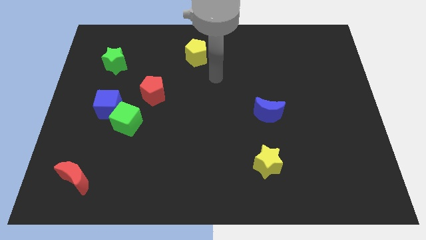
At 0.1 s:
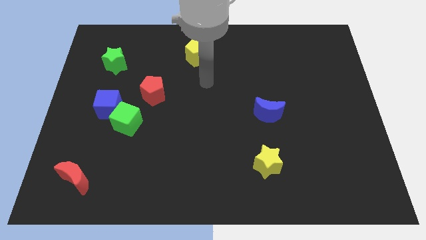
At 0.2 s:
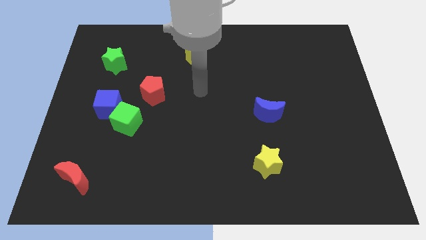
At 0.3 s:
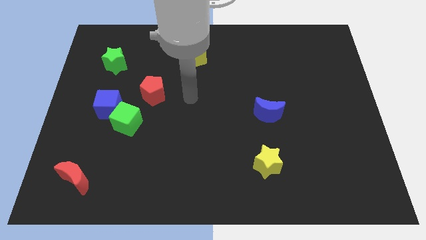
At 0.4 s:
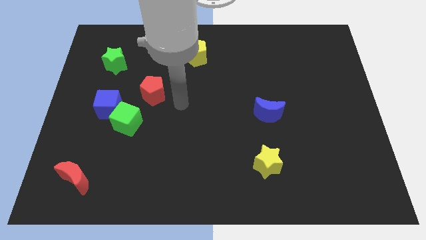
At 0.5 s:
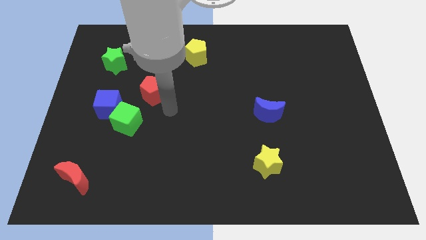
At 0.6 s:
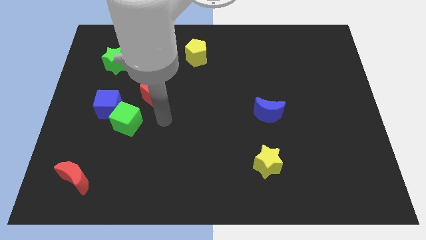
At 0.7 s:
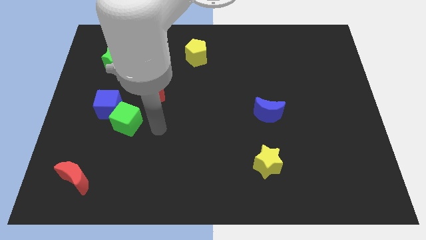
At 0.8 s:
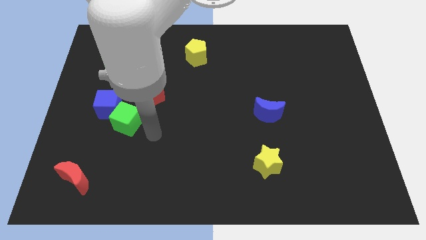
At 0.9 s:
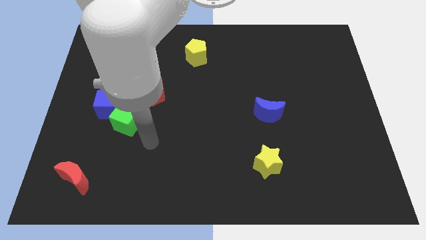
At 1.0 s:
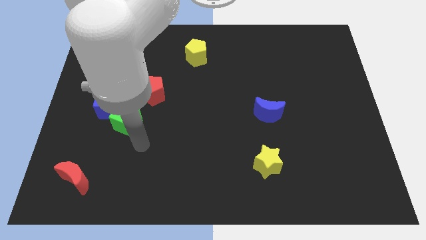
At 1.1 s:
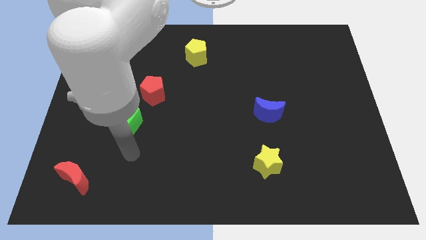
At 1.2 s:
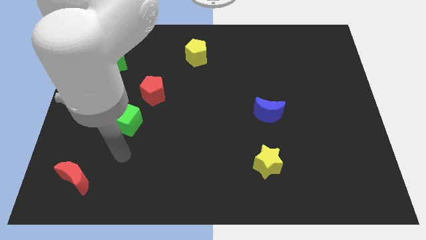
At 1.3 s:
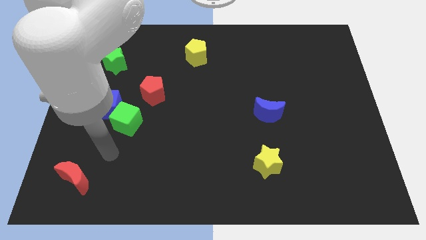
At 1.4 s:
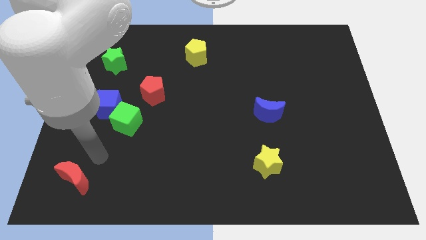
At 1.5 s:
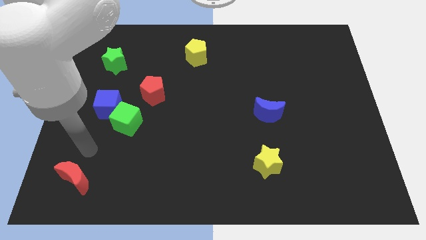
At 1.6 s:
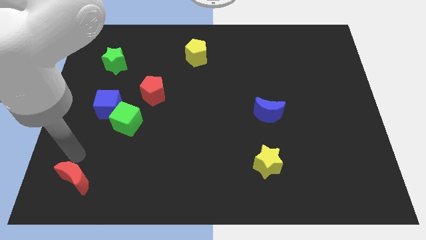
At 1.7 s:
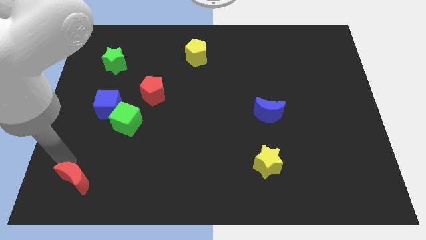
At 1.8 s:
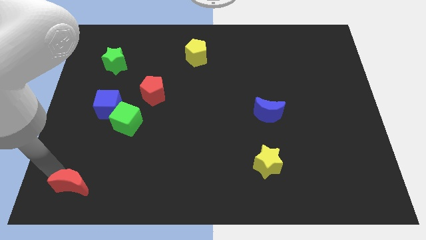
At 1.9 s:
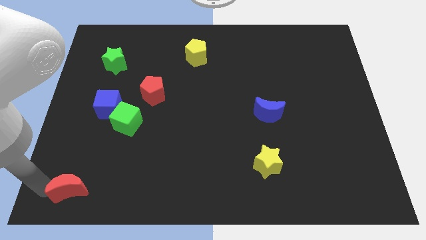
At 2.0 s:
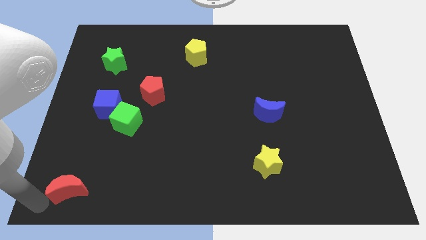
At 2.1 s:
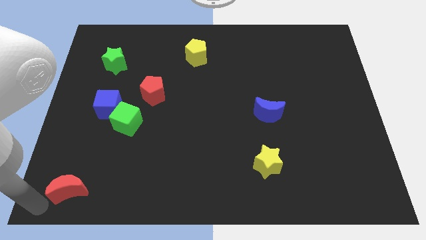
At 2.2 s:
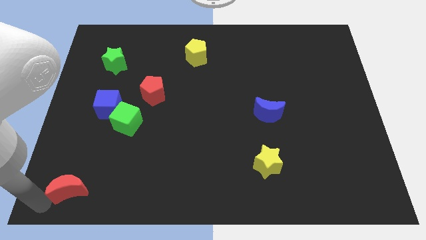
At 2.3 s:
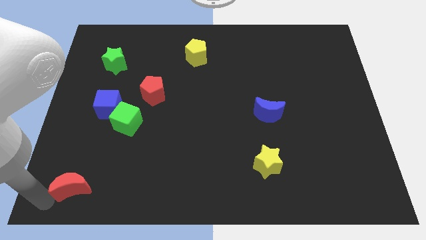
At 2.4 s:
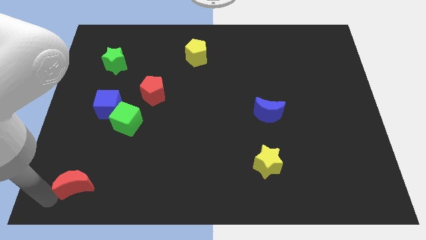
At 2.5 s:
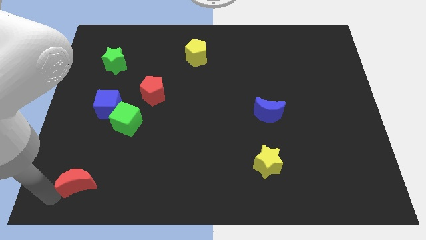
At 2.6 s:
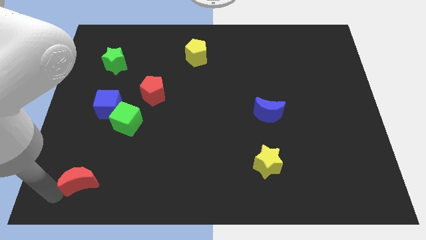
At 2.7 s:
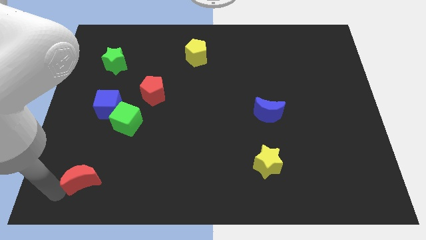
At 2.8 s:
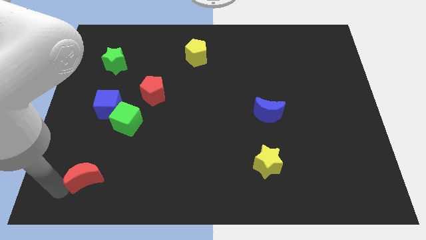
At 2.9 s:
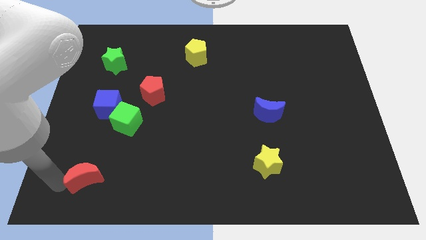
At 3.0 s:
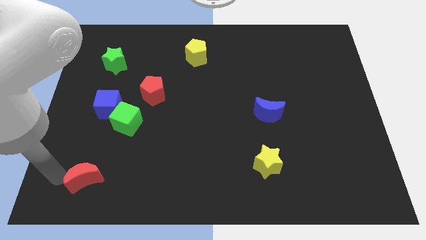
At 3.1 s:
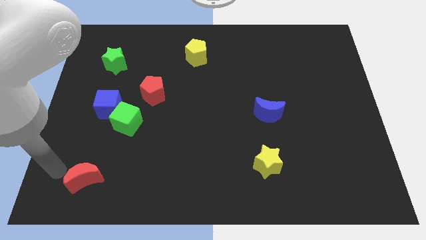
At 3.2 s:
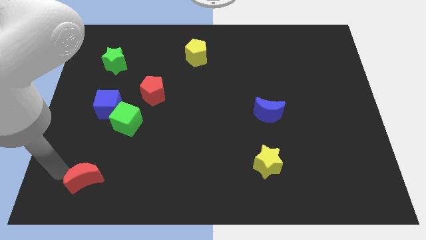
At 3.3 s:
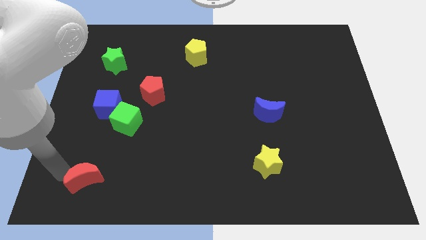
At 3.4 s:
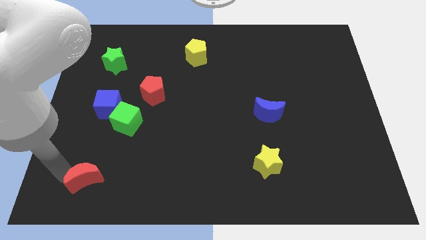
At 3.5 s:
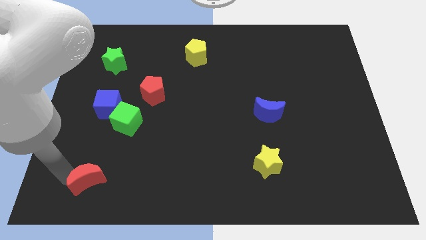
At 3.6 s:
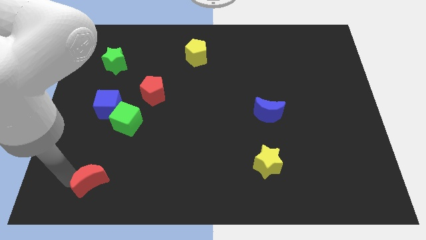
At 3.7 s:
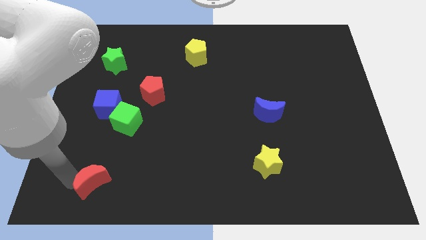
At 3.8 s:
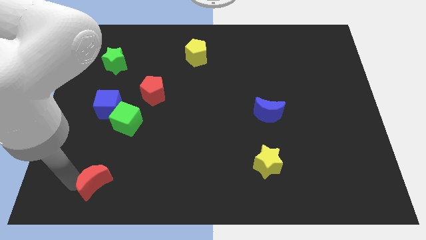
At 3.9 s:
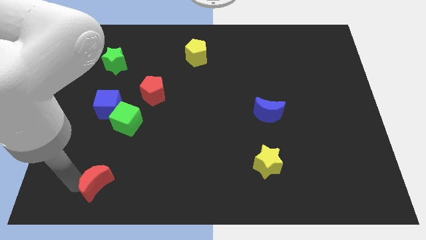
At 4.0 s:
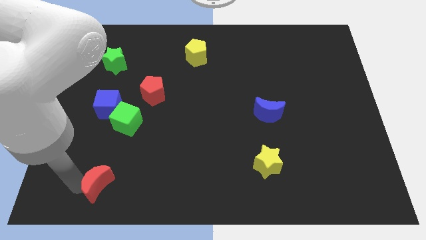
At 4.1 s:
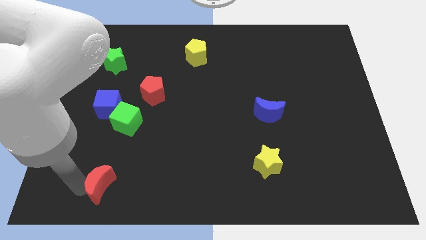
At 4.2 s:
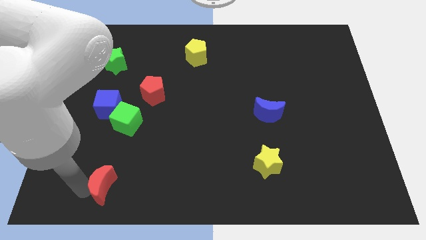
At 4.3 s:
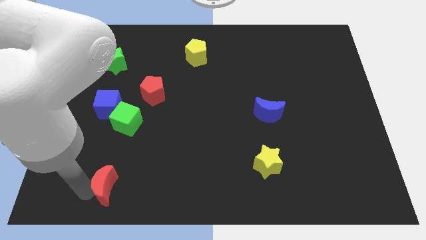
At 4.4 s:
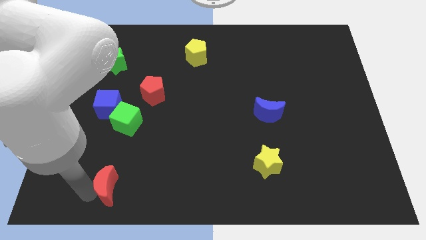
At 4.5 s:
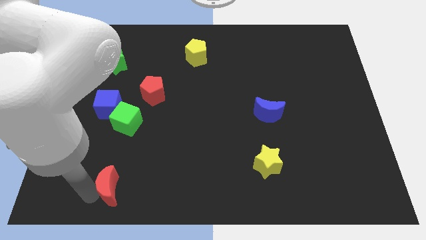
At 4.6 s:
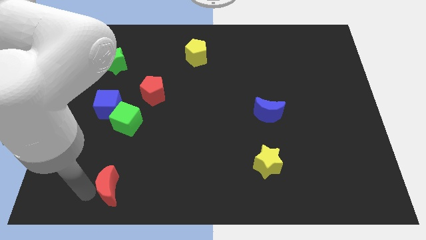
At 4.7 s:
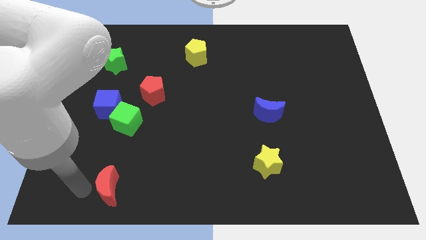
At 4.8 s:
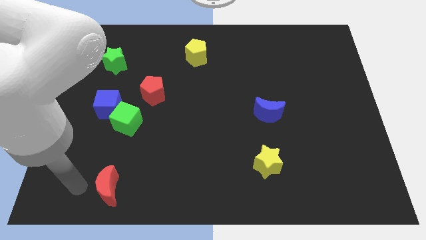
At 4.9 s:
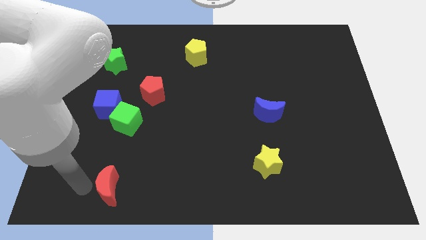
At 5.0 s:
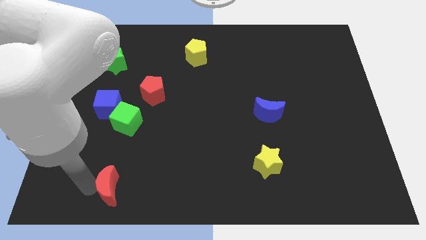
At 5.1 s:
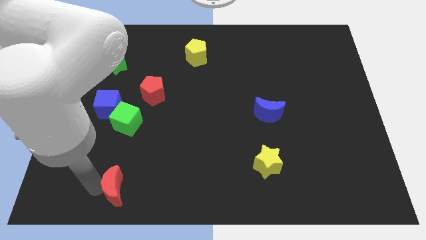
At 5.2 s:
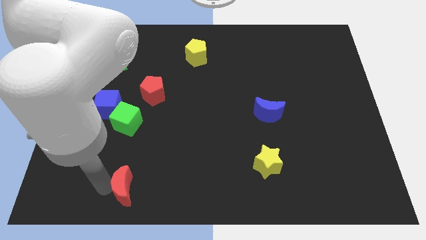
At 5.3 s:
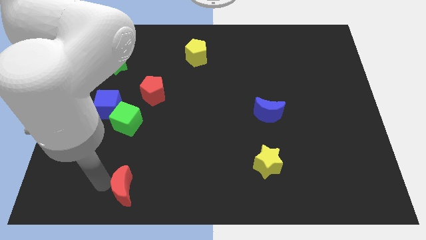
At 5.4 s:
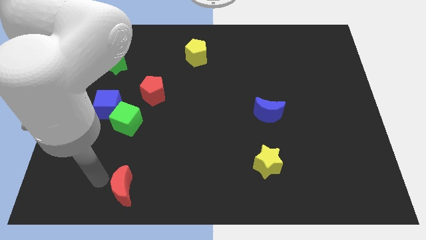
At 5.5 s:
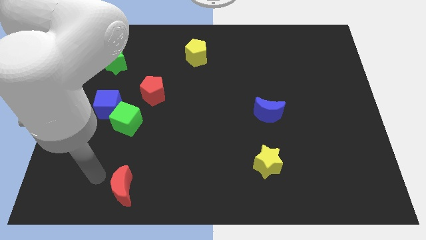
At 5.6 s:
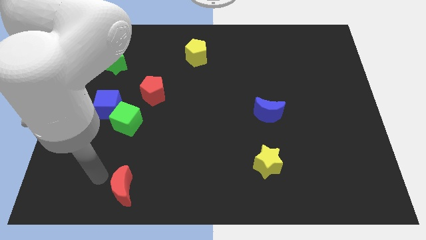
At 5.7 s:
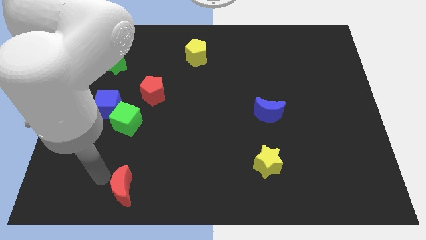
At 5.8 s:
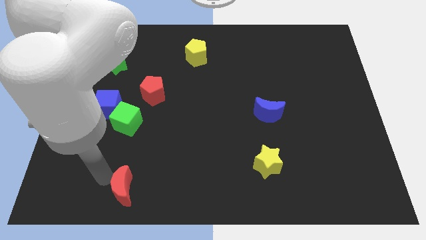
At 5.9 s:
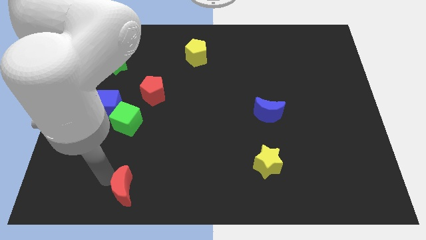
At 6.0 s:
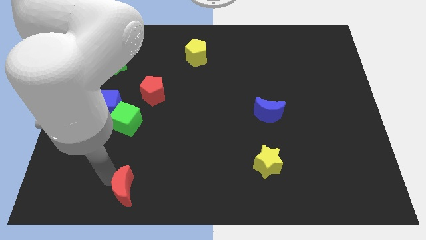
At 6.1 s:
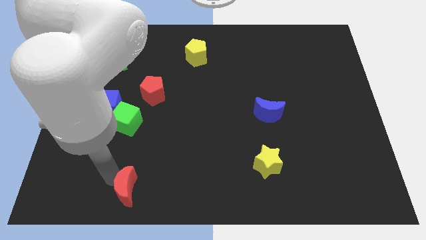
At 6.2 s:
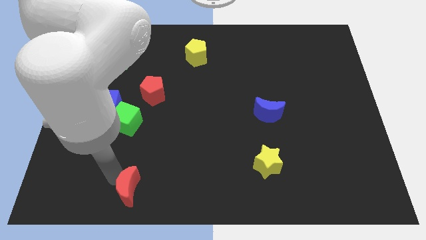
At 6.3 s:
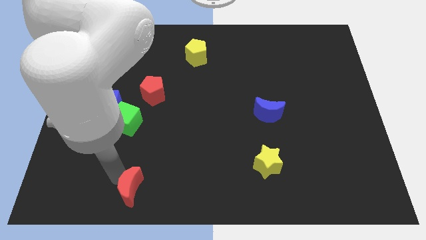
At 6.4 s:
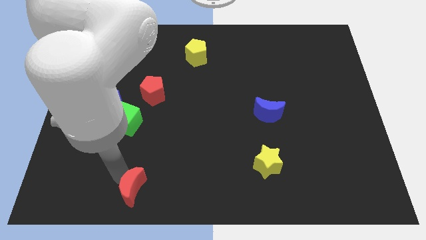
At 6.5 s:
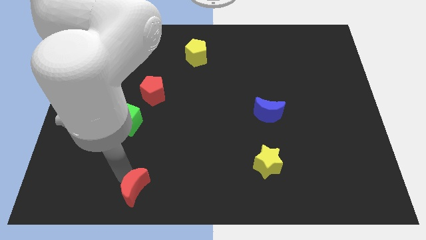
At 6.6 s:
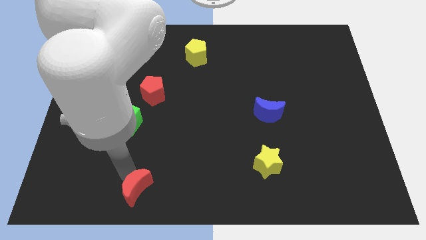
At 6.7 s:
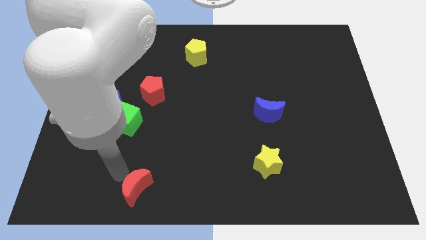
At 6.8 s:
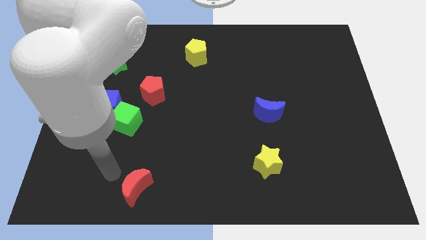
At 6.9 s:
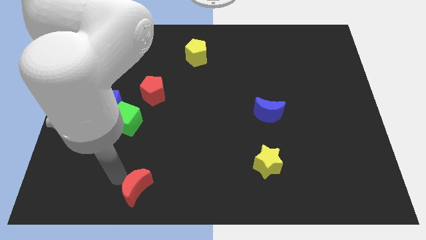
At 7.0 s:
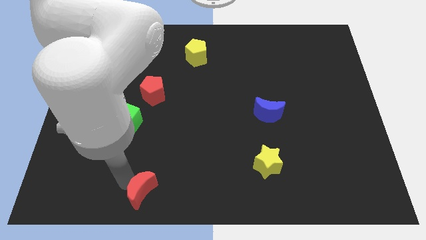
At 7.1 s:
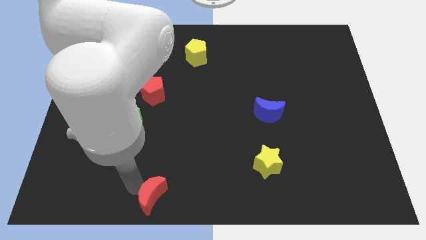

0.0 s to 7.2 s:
slide the red moon to the bottom

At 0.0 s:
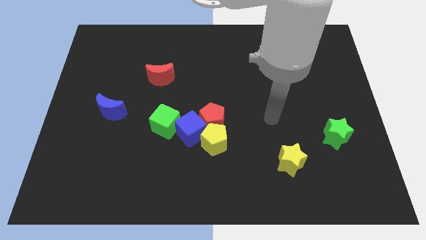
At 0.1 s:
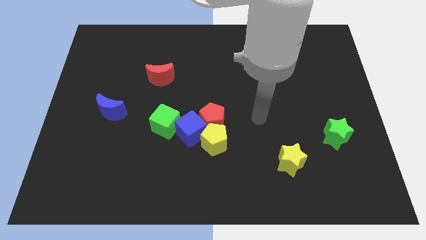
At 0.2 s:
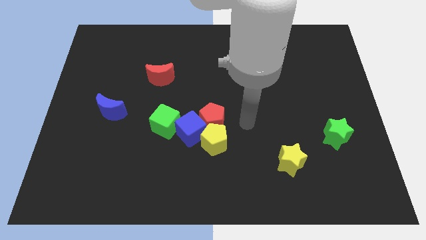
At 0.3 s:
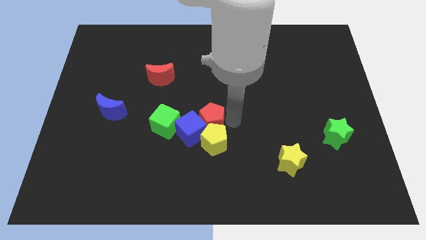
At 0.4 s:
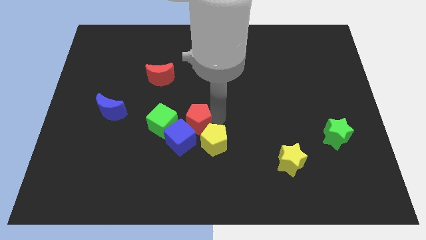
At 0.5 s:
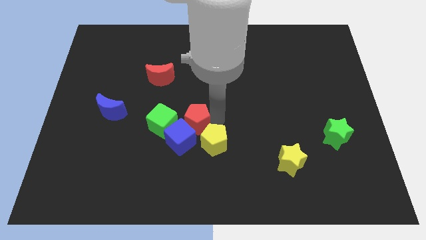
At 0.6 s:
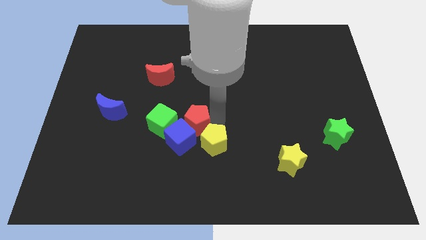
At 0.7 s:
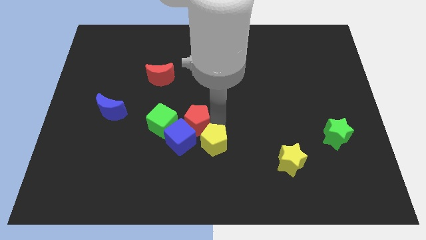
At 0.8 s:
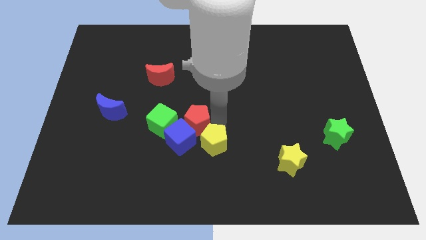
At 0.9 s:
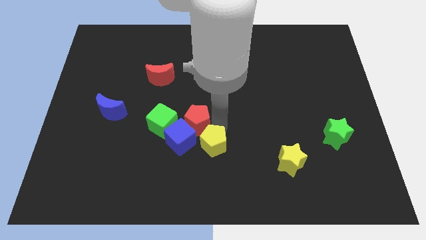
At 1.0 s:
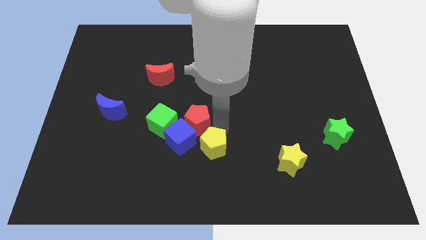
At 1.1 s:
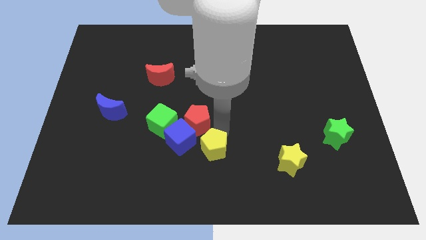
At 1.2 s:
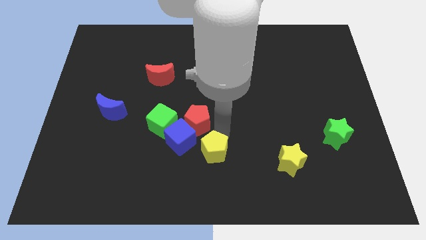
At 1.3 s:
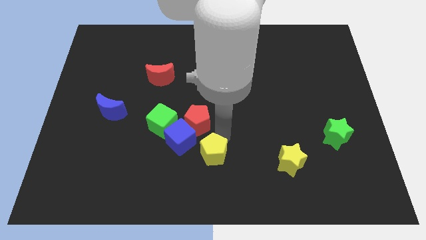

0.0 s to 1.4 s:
slide the yellow pentagon to the bottom side
